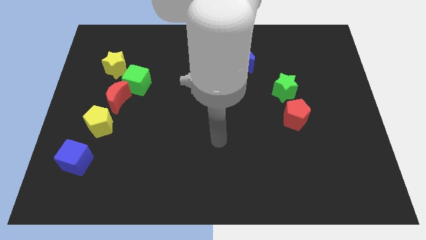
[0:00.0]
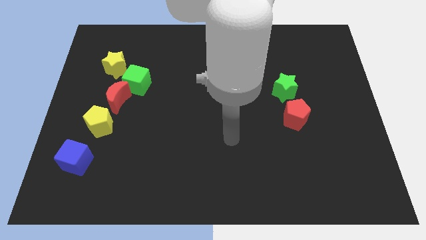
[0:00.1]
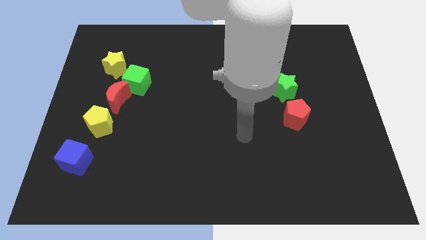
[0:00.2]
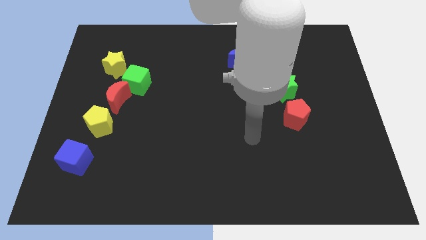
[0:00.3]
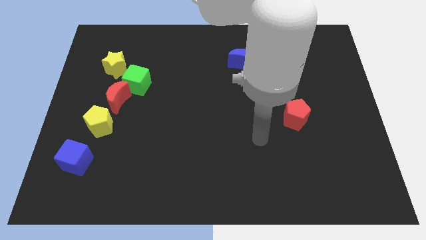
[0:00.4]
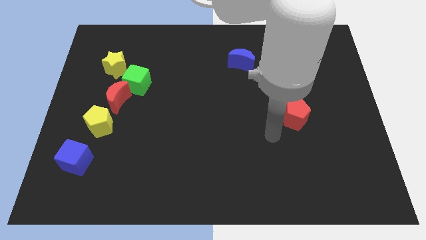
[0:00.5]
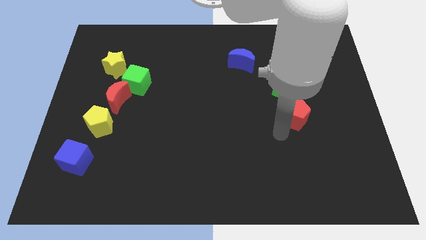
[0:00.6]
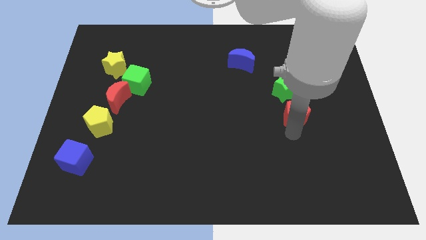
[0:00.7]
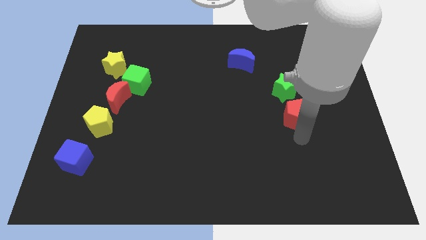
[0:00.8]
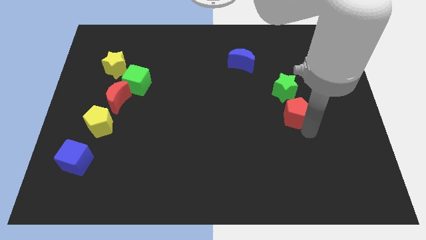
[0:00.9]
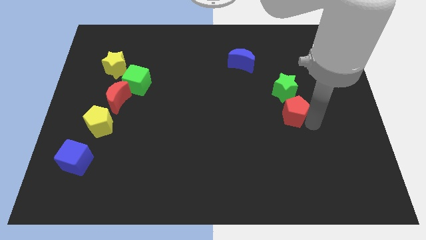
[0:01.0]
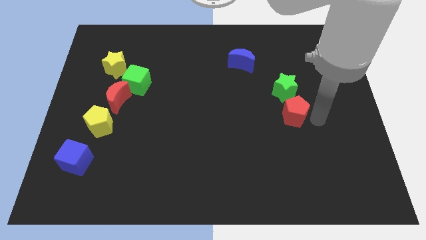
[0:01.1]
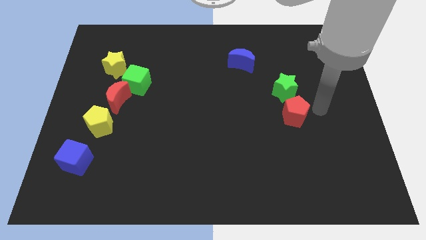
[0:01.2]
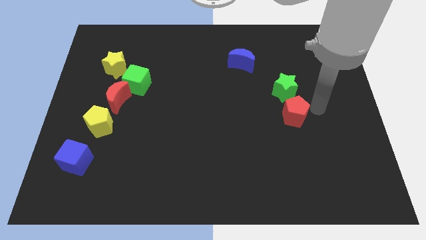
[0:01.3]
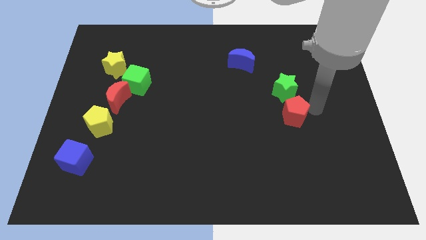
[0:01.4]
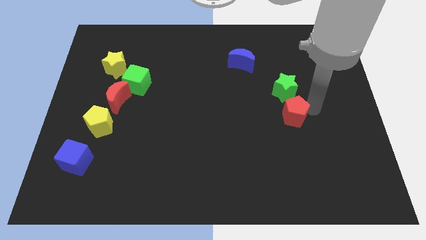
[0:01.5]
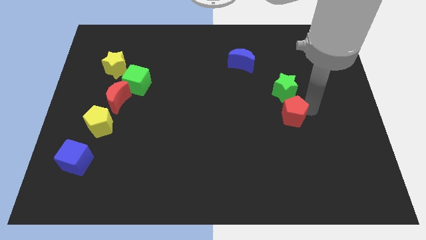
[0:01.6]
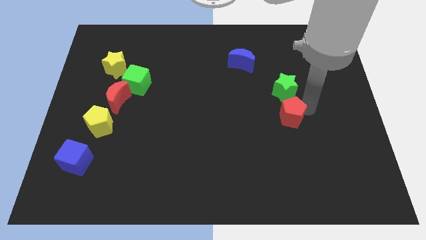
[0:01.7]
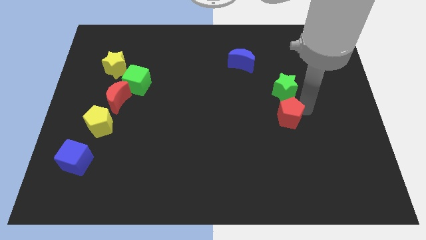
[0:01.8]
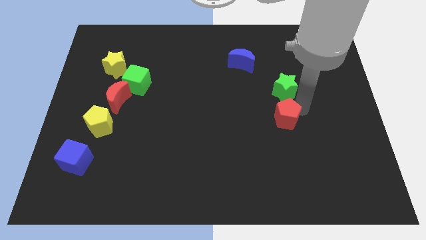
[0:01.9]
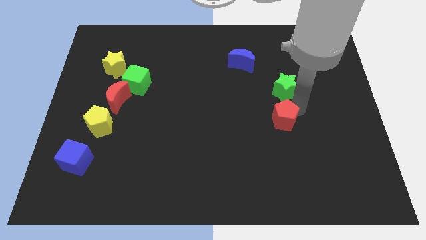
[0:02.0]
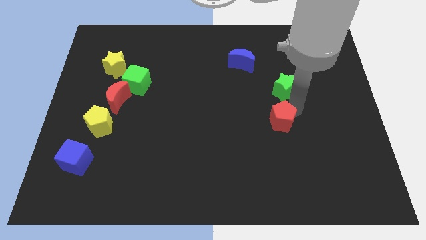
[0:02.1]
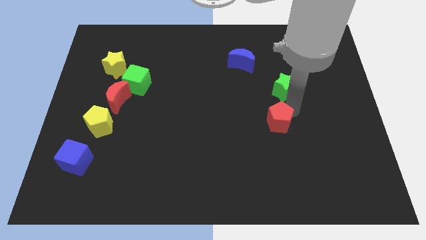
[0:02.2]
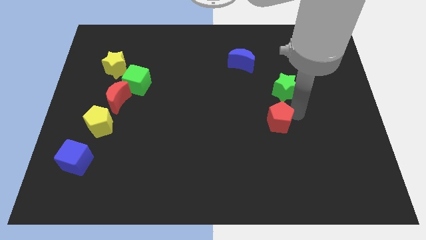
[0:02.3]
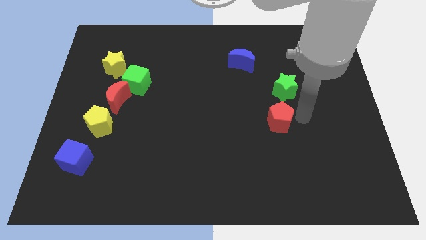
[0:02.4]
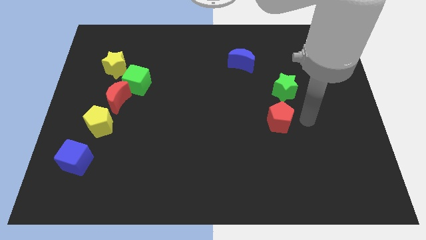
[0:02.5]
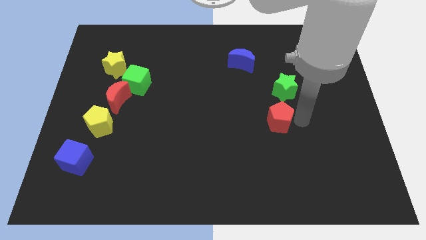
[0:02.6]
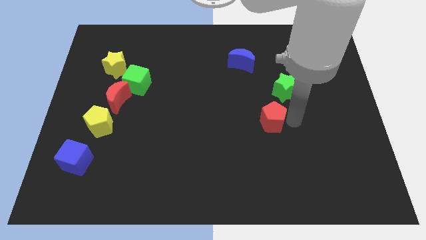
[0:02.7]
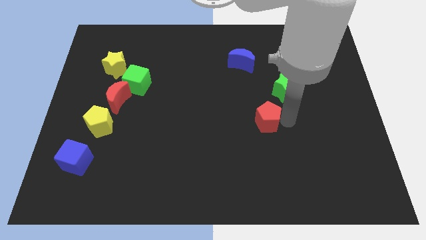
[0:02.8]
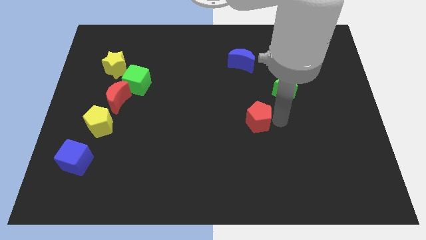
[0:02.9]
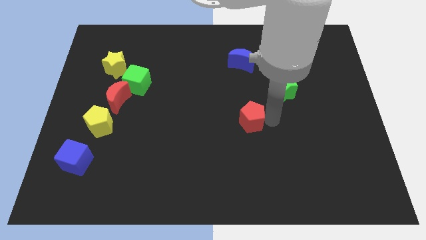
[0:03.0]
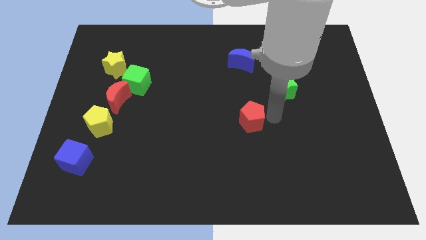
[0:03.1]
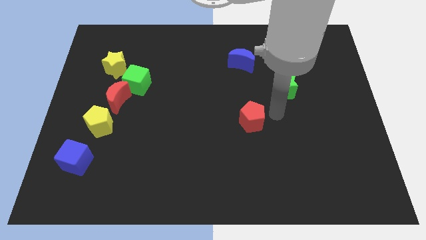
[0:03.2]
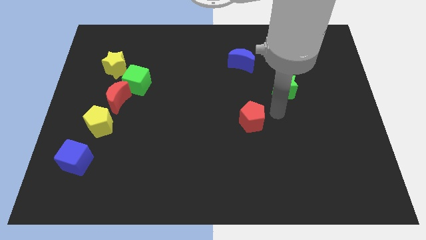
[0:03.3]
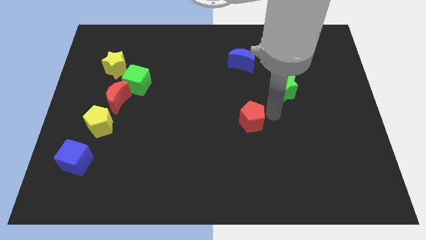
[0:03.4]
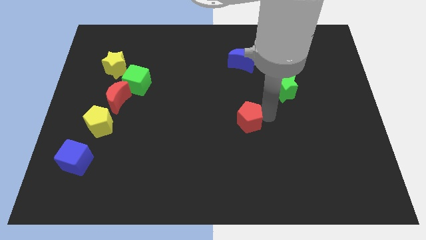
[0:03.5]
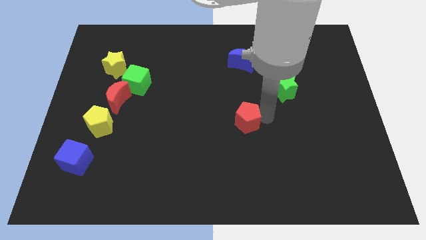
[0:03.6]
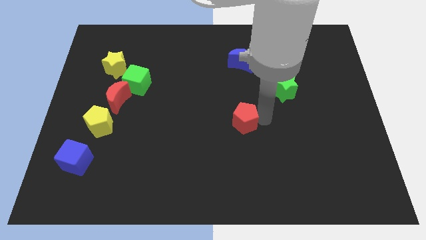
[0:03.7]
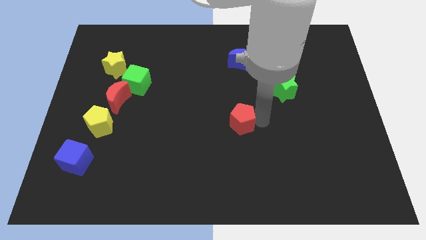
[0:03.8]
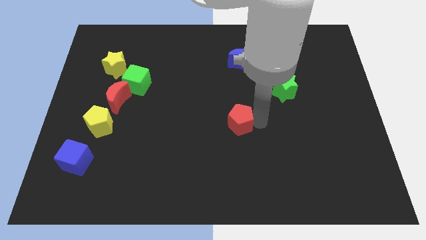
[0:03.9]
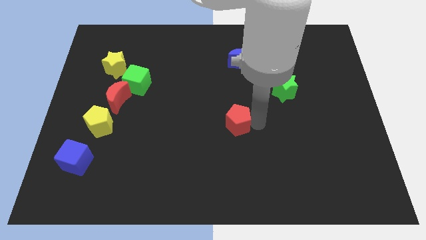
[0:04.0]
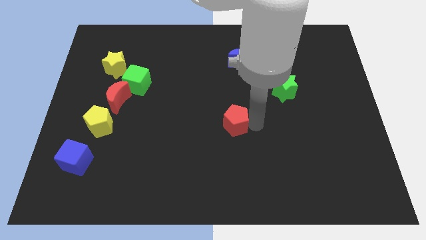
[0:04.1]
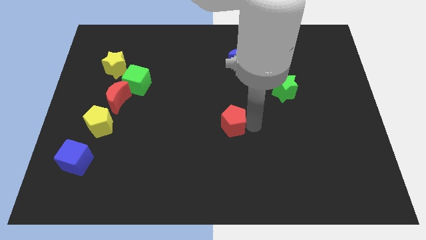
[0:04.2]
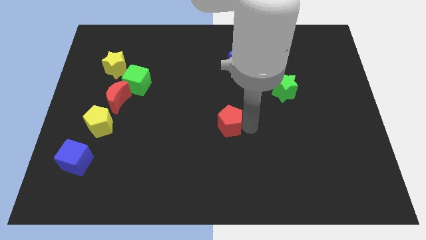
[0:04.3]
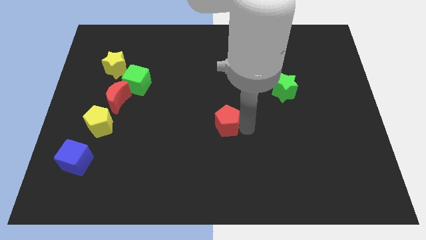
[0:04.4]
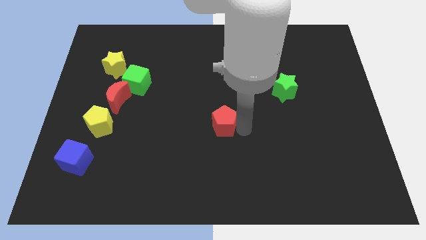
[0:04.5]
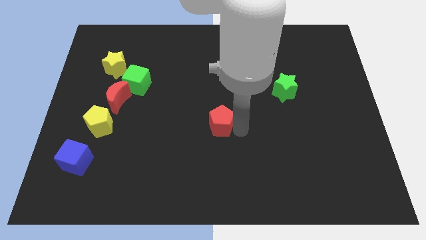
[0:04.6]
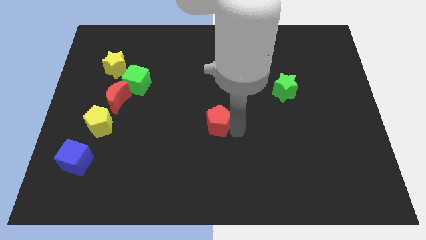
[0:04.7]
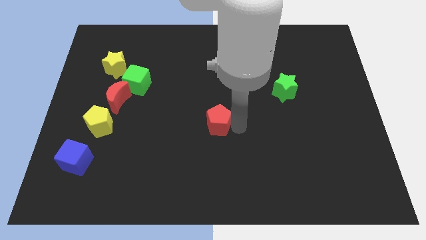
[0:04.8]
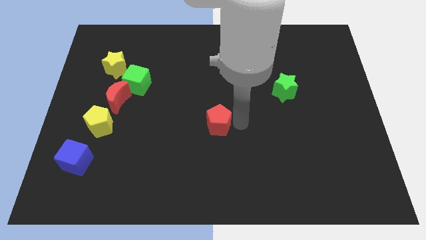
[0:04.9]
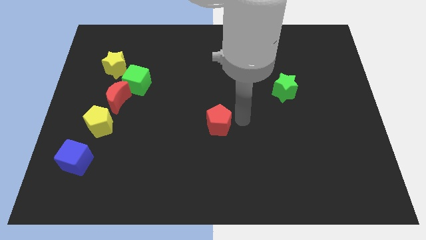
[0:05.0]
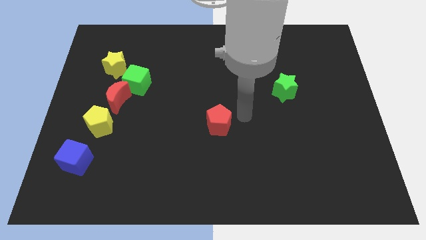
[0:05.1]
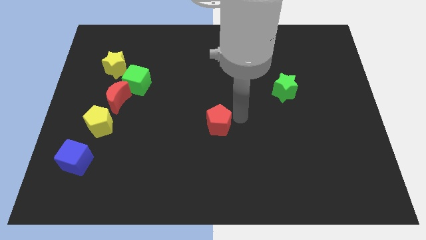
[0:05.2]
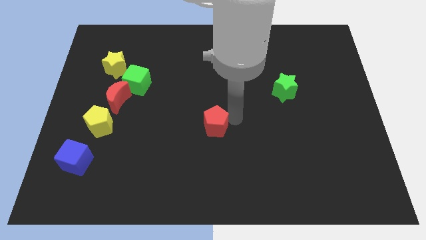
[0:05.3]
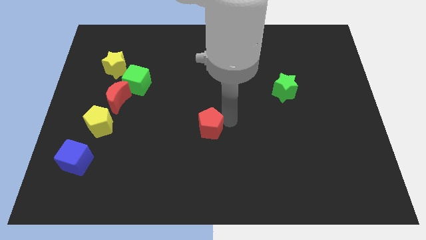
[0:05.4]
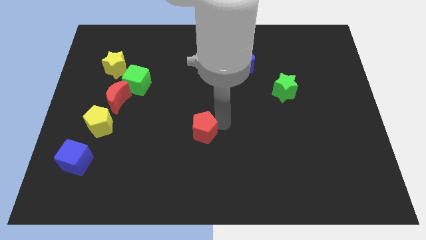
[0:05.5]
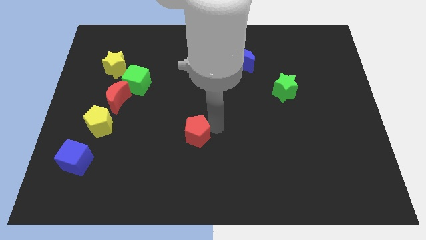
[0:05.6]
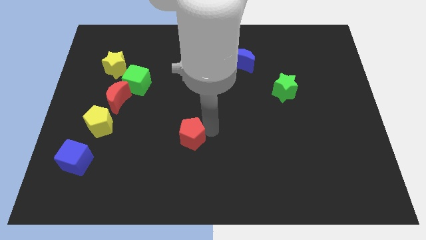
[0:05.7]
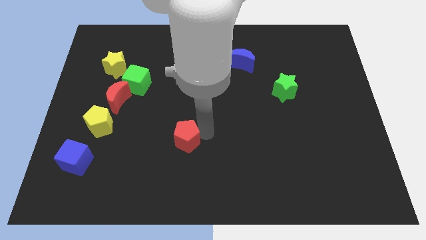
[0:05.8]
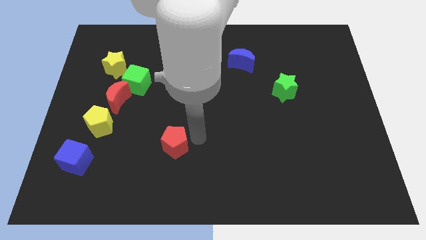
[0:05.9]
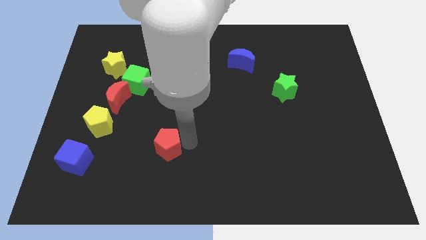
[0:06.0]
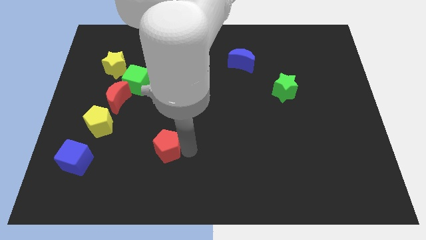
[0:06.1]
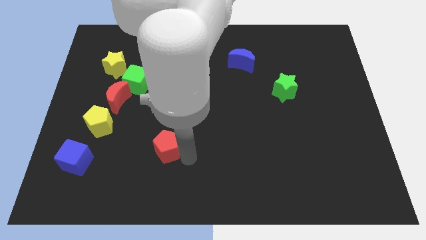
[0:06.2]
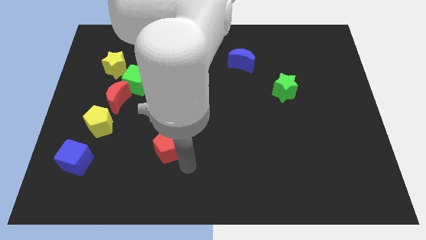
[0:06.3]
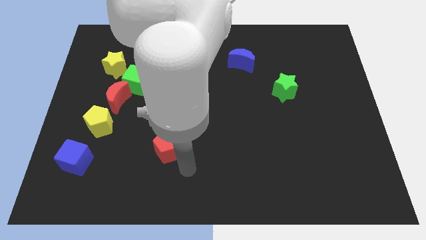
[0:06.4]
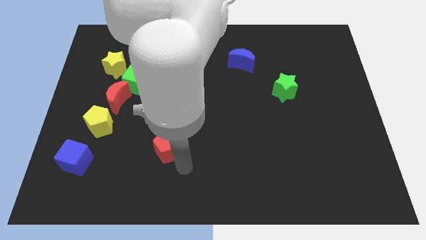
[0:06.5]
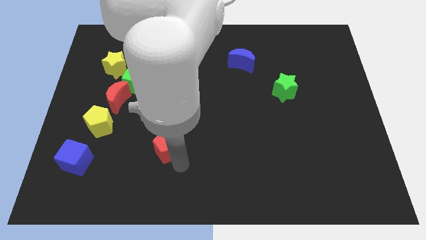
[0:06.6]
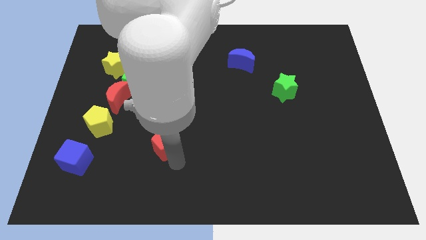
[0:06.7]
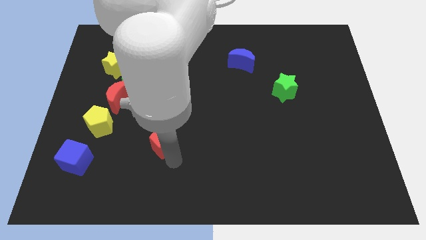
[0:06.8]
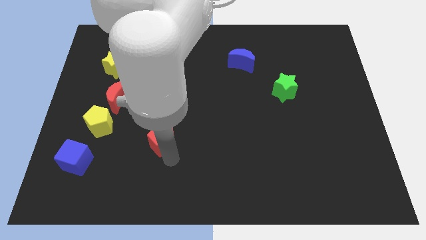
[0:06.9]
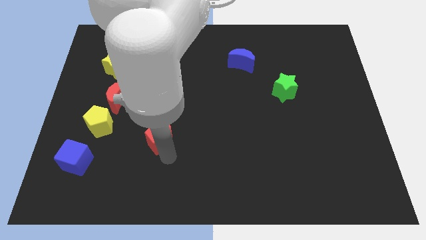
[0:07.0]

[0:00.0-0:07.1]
push the red pentagon to the right of the yellow pentagon
